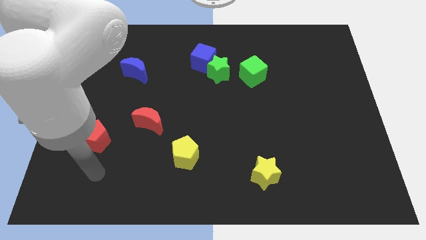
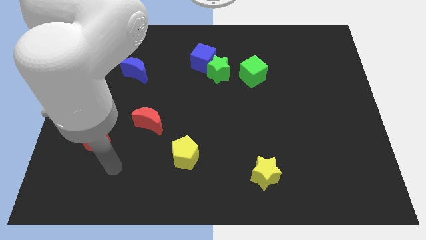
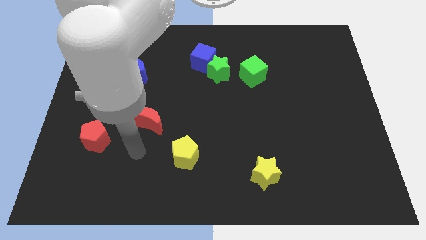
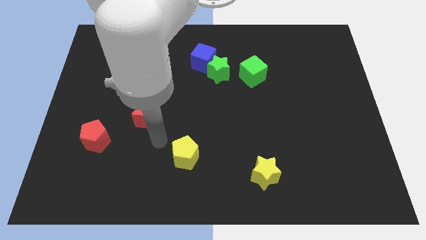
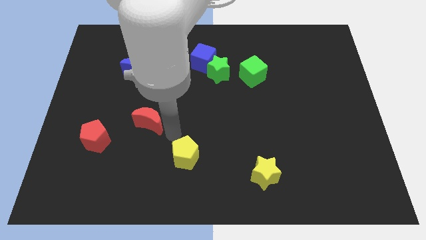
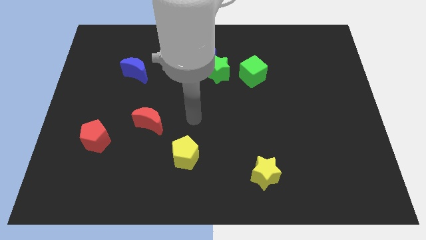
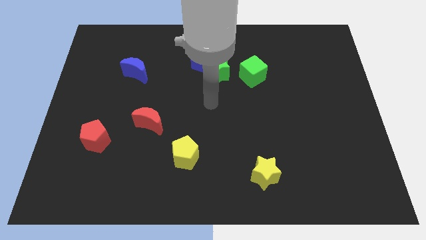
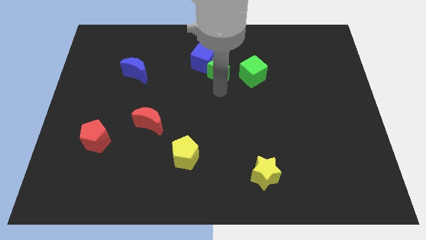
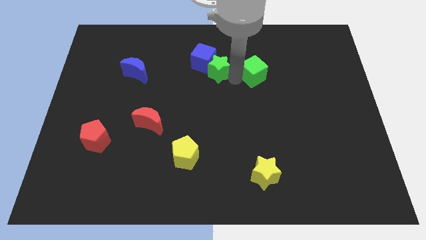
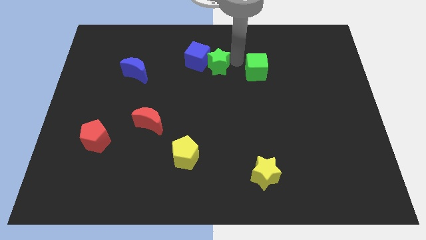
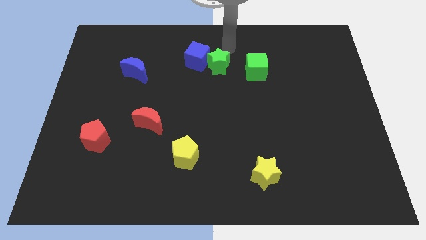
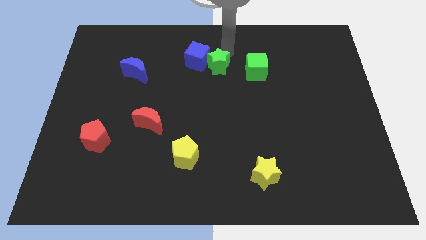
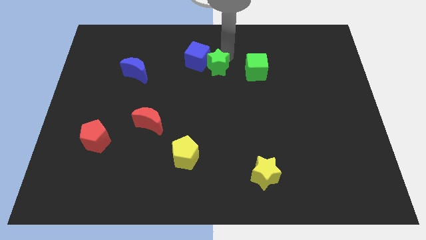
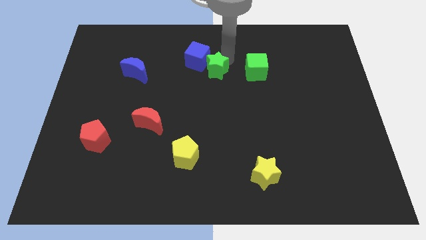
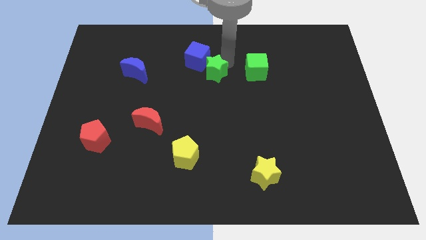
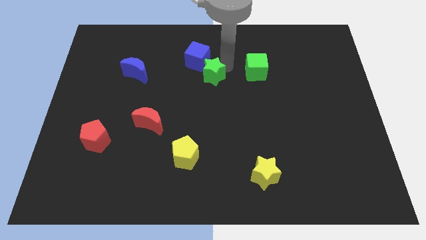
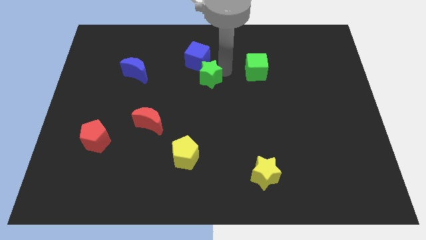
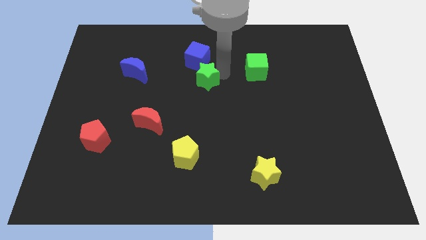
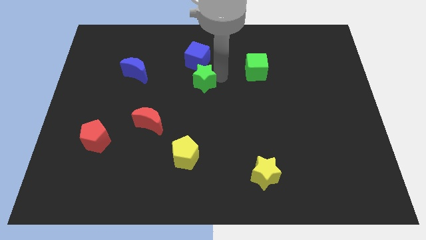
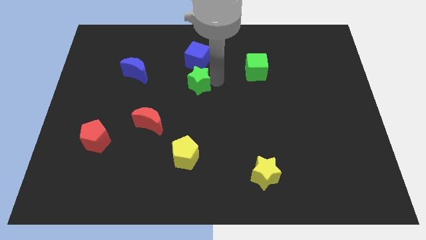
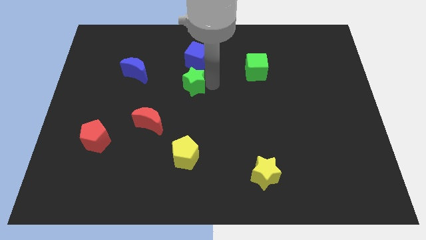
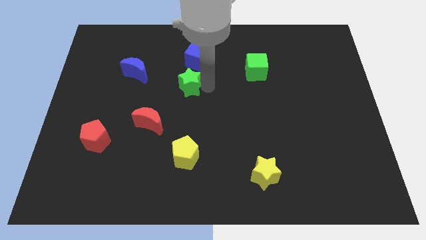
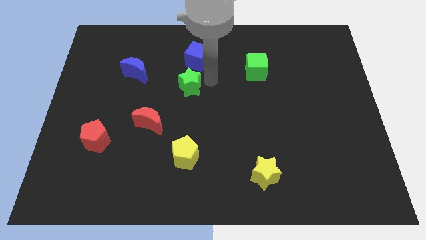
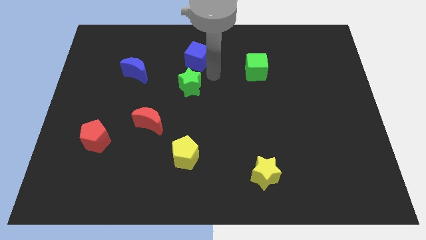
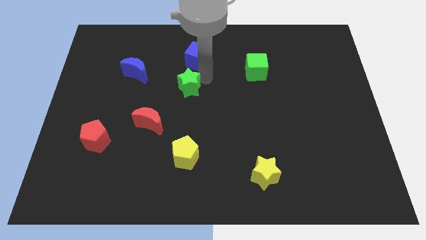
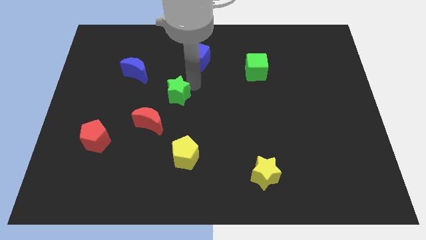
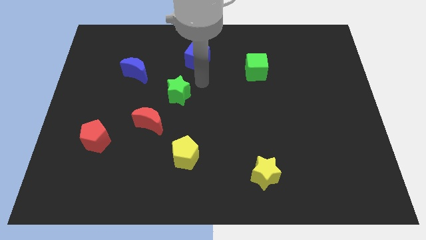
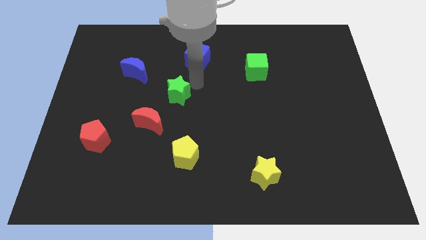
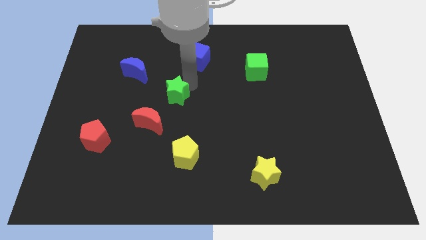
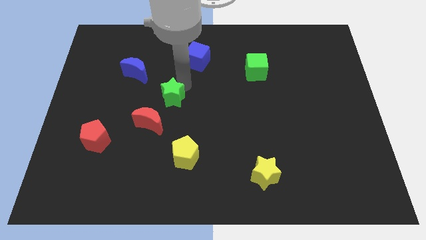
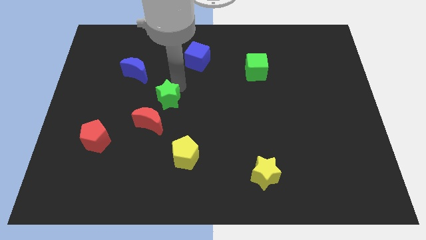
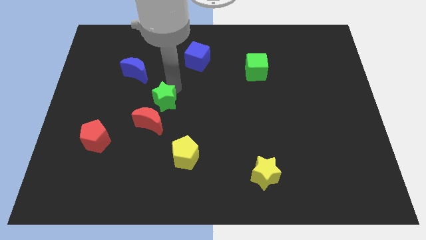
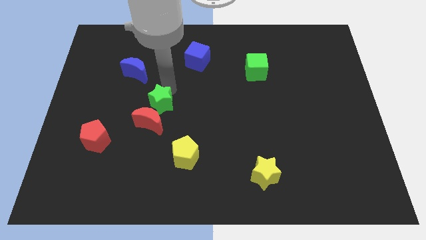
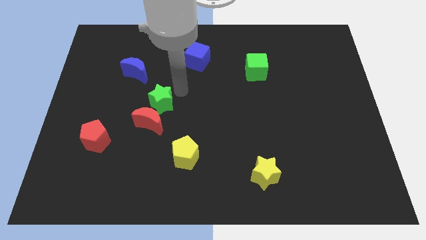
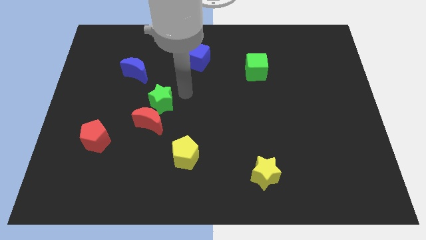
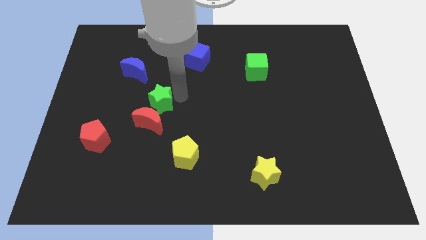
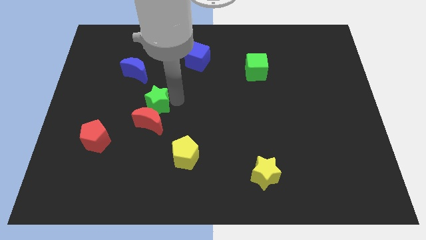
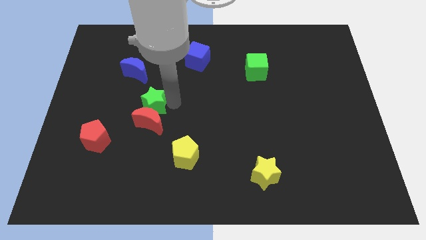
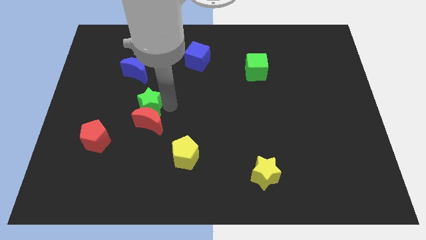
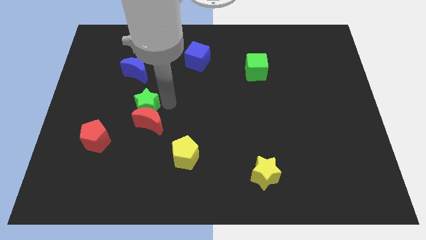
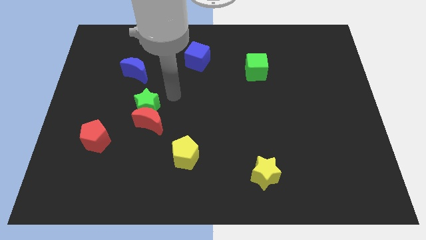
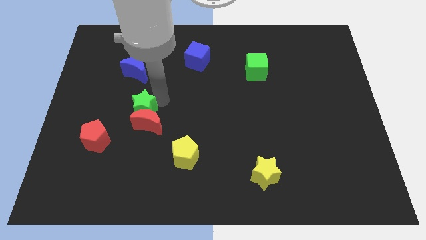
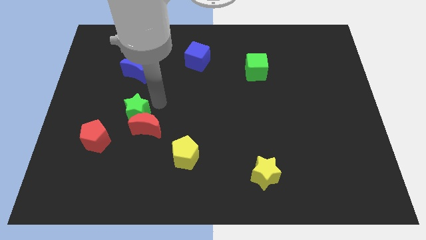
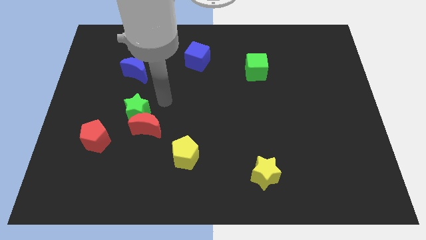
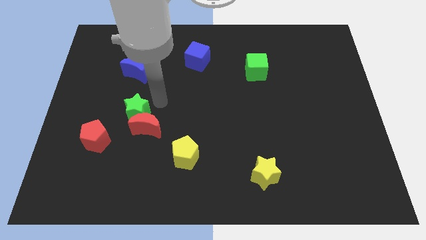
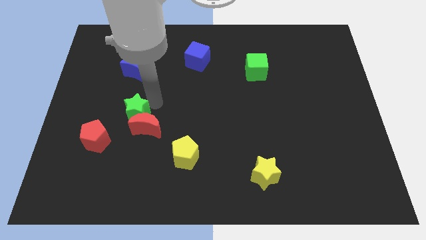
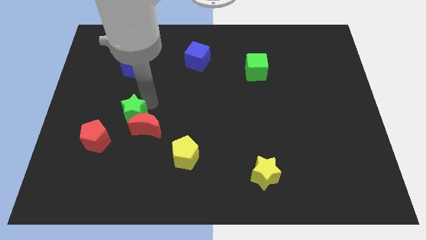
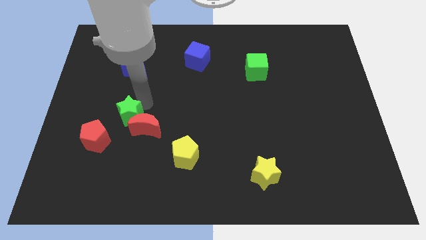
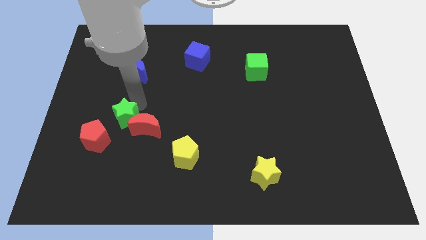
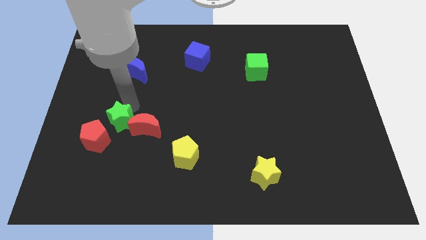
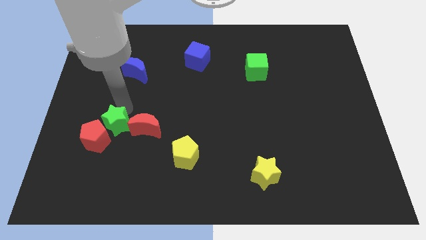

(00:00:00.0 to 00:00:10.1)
move the green star close to the red pentagon

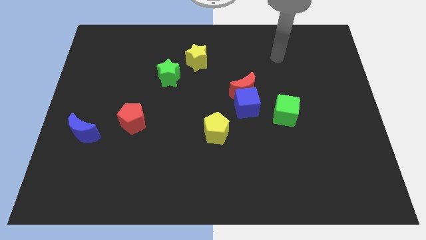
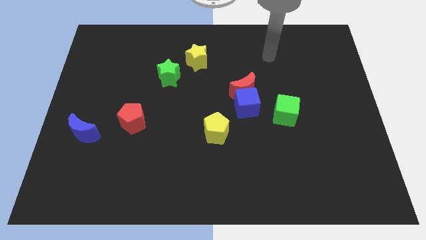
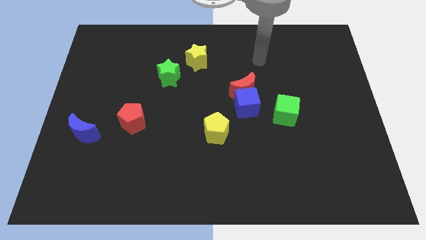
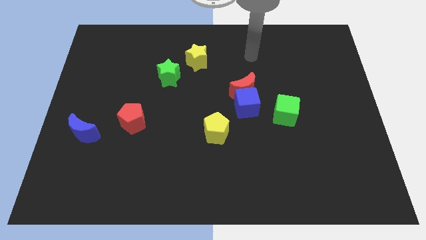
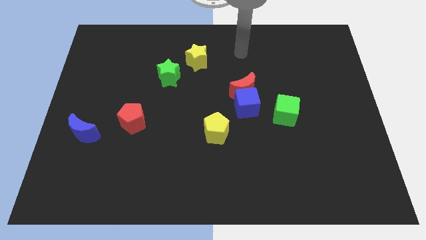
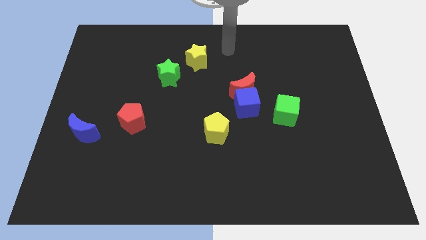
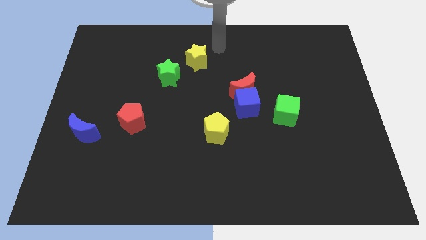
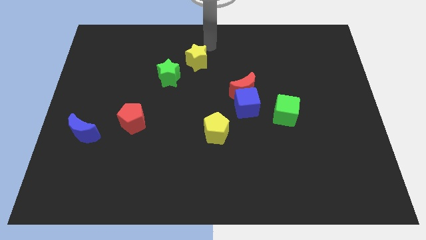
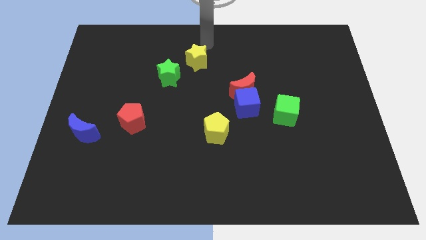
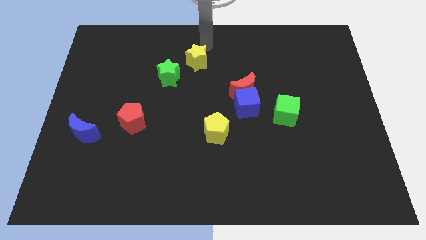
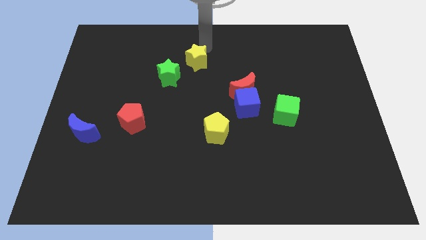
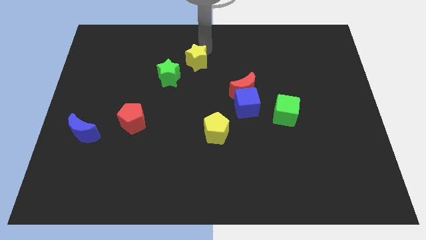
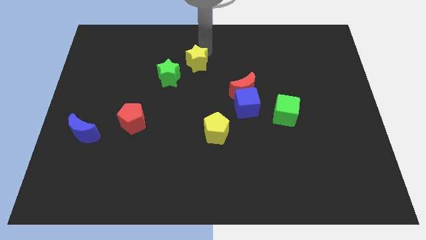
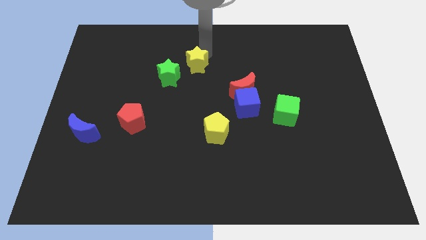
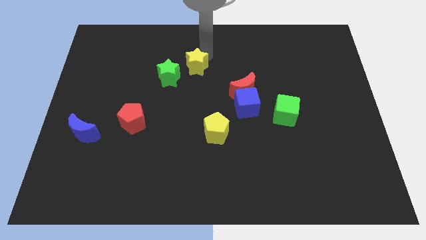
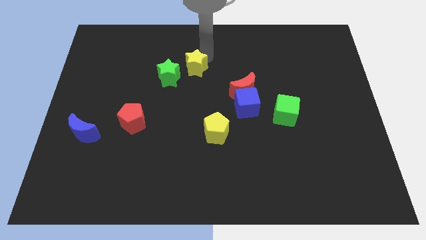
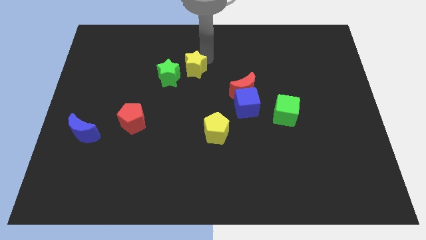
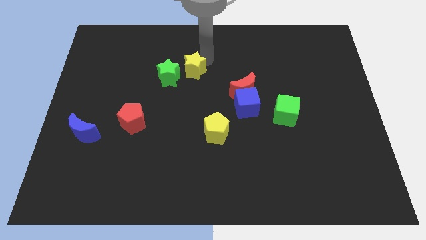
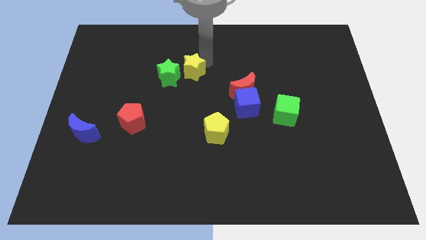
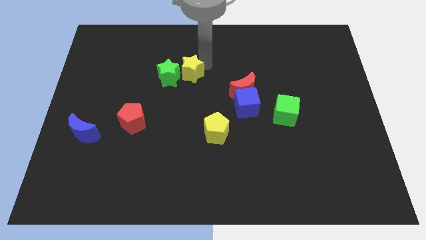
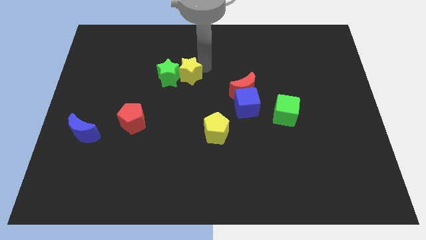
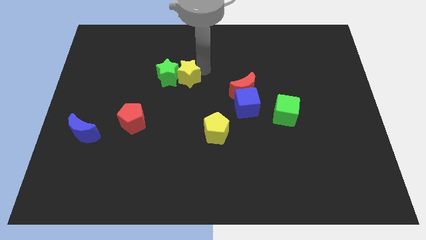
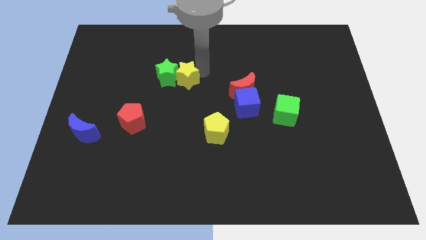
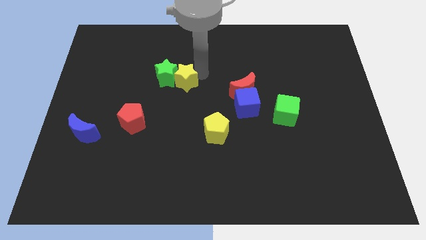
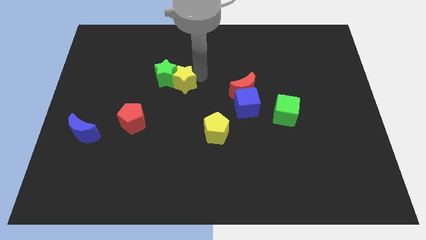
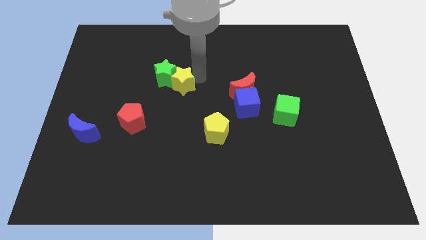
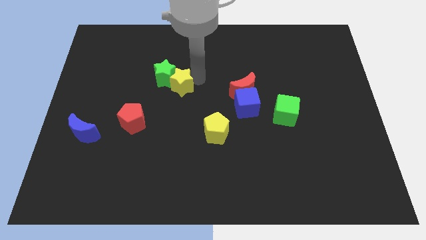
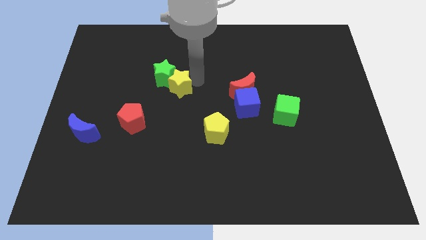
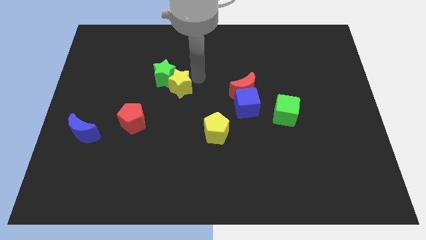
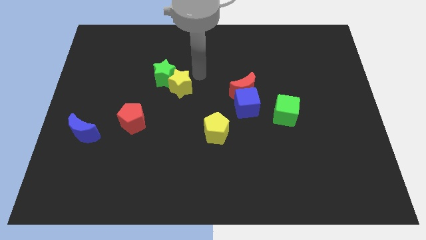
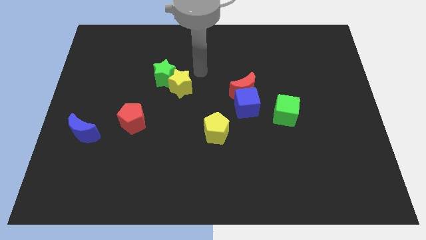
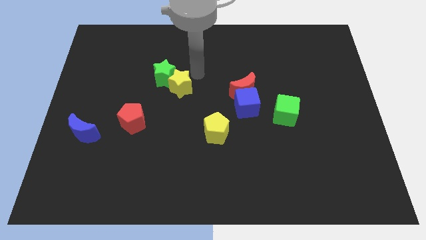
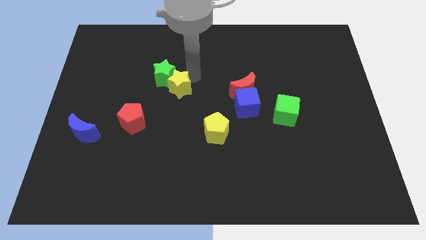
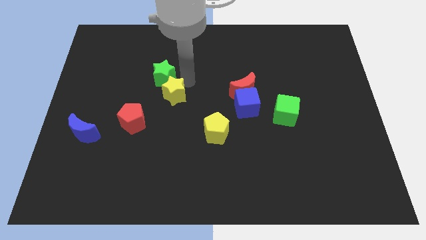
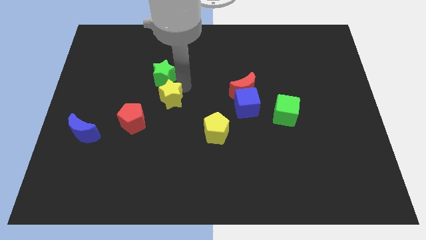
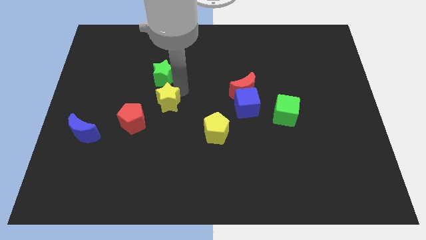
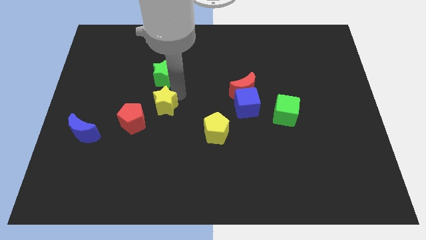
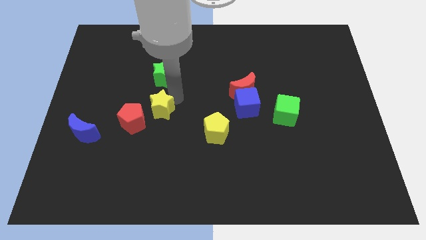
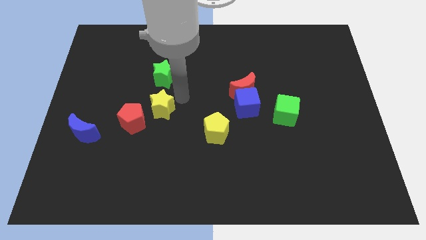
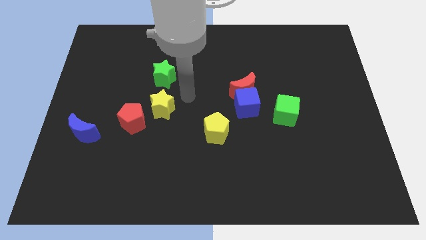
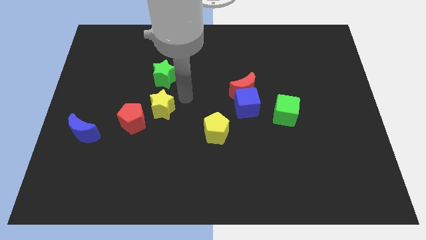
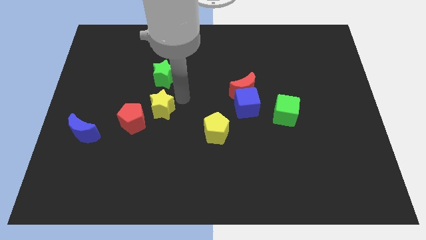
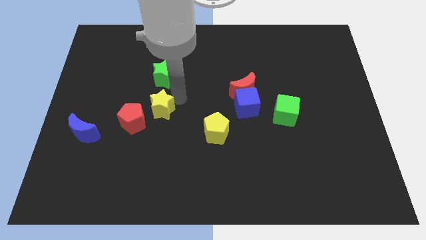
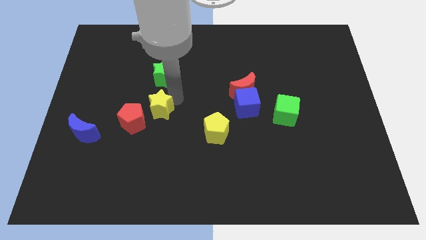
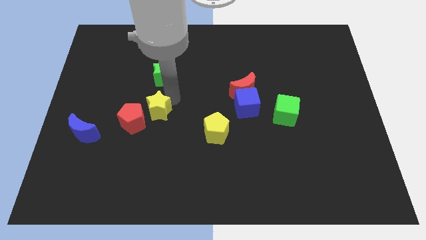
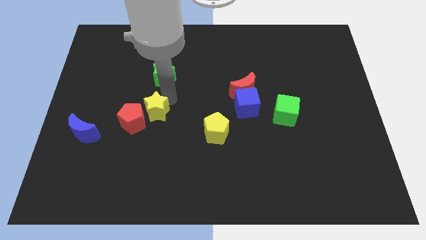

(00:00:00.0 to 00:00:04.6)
move the yellow star towards the red pentagon
